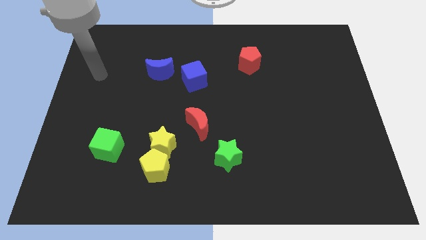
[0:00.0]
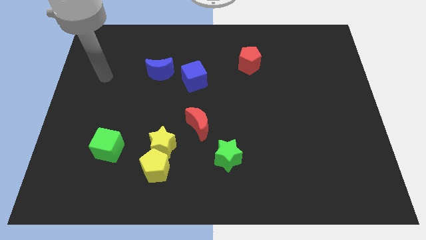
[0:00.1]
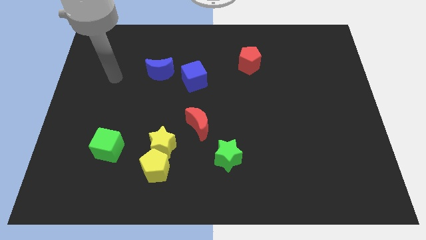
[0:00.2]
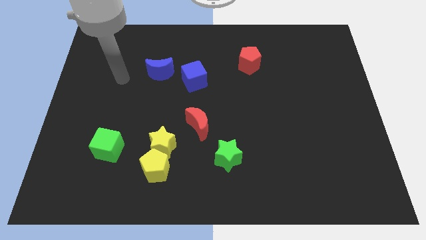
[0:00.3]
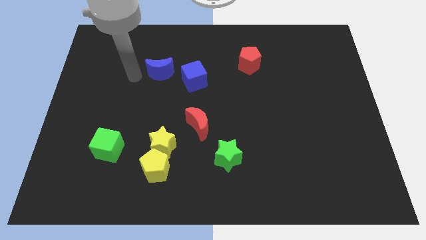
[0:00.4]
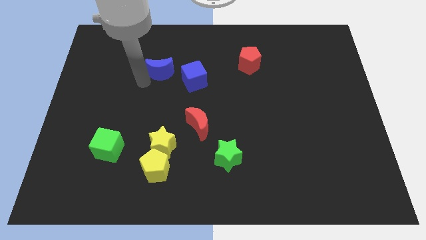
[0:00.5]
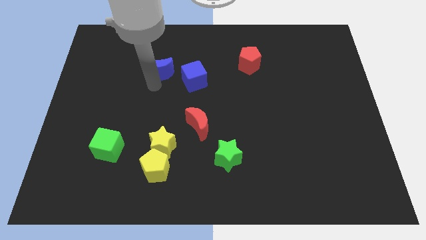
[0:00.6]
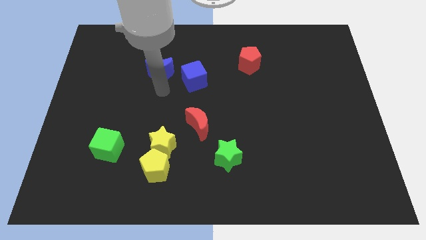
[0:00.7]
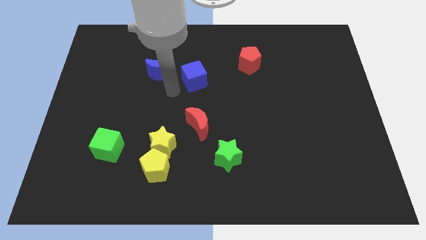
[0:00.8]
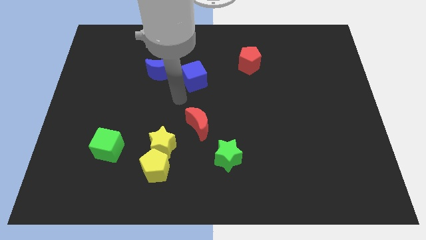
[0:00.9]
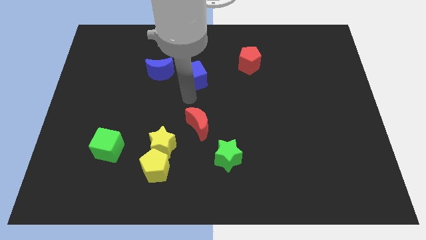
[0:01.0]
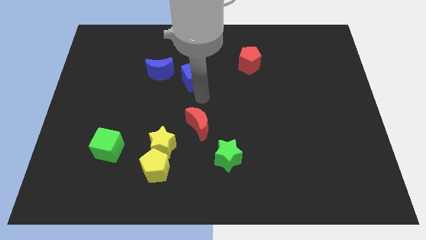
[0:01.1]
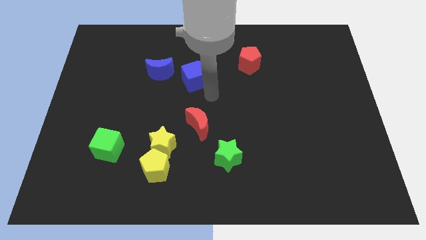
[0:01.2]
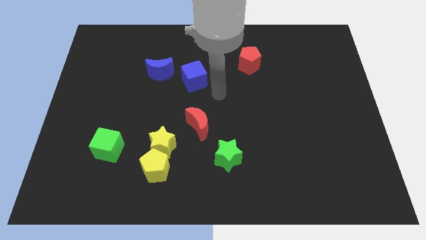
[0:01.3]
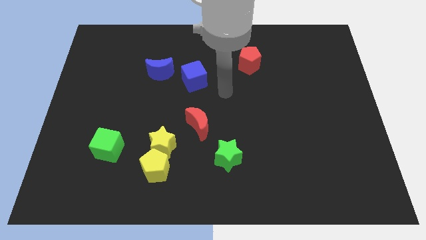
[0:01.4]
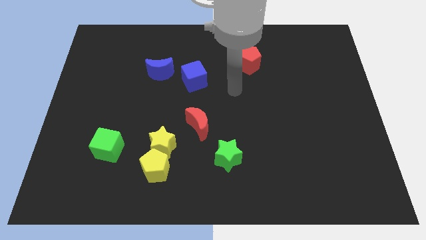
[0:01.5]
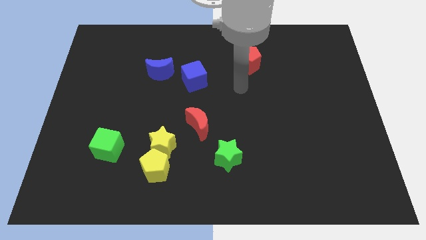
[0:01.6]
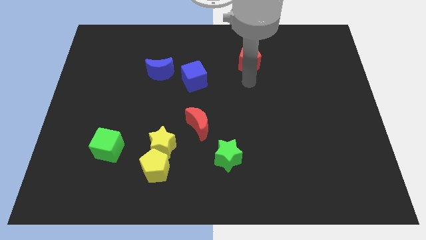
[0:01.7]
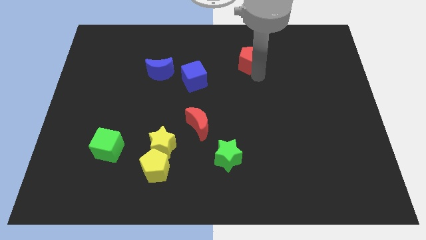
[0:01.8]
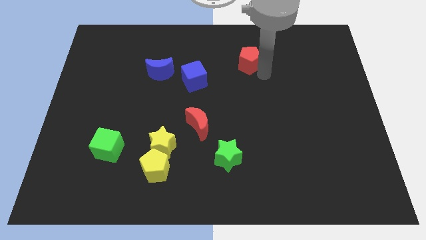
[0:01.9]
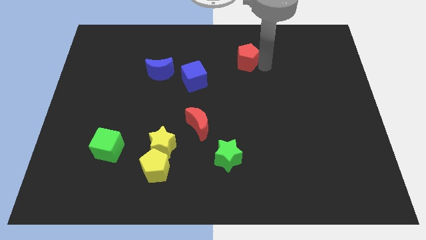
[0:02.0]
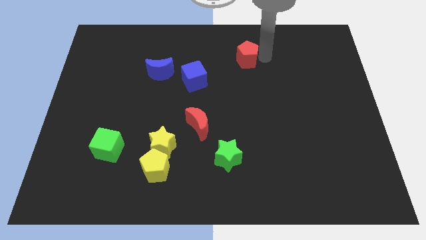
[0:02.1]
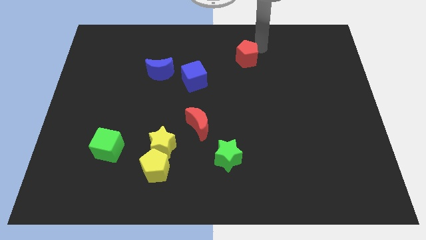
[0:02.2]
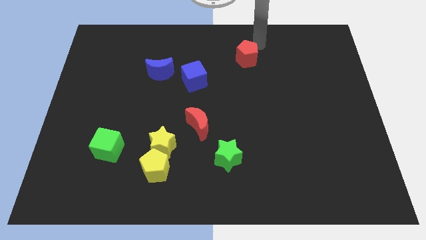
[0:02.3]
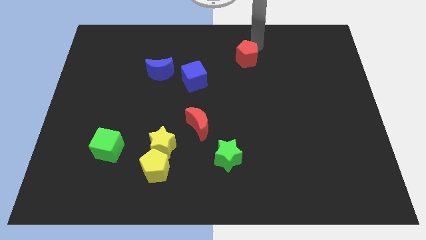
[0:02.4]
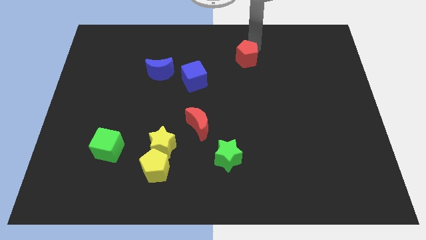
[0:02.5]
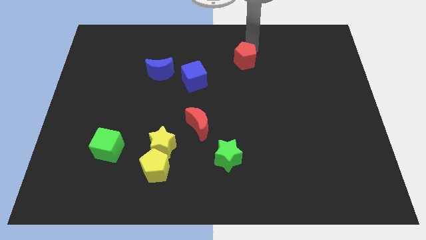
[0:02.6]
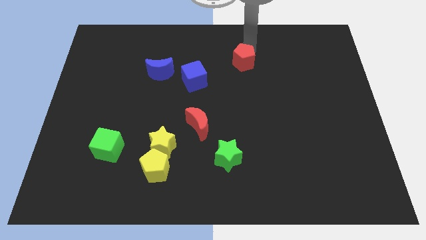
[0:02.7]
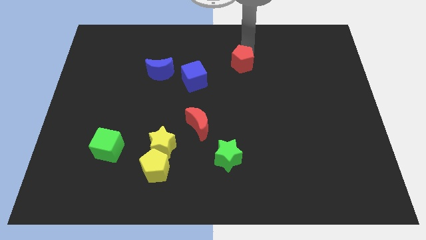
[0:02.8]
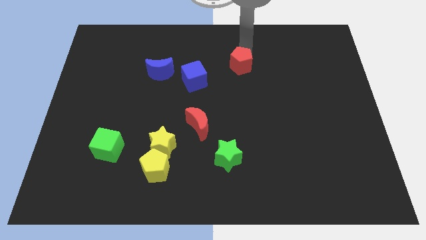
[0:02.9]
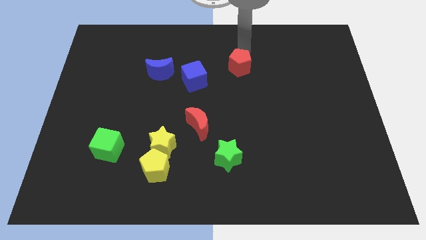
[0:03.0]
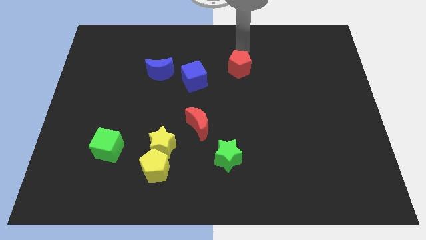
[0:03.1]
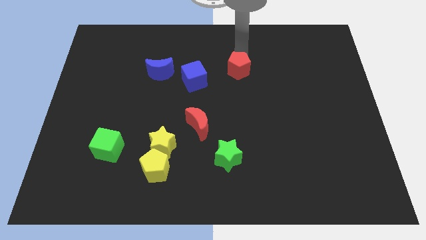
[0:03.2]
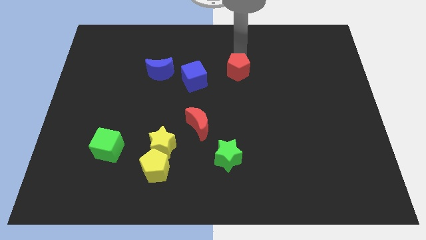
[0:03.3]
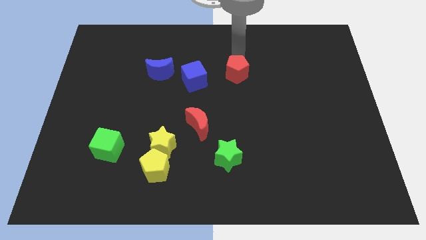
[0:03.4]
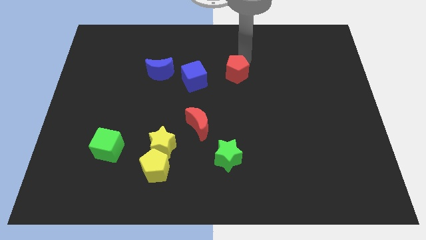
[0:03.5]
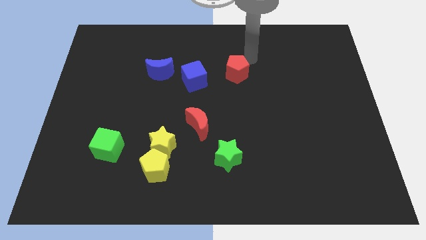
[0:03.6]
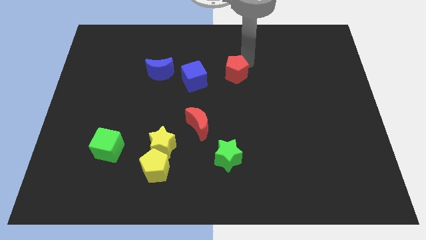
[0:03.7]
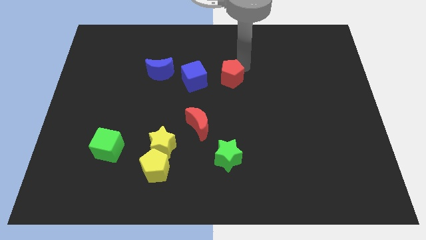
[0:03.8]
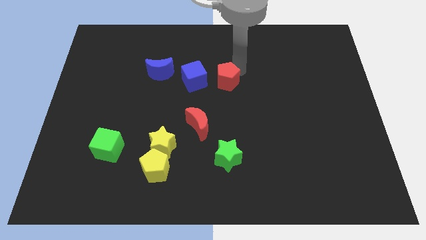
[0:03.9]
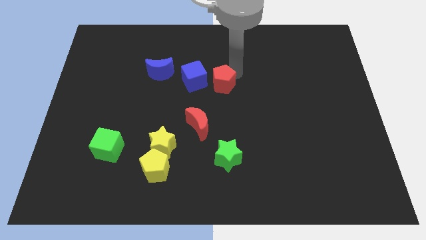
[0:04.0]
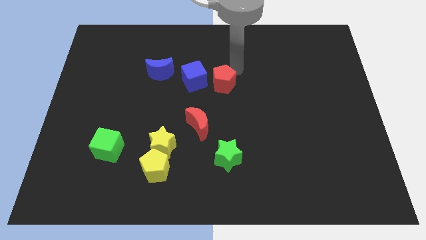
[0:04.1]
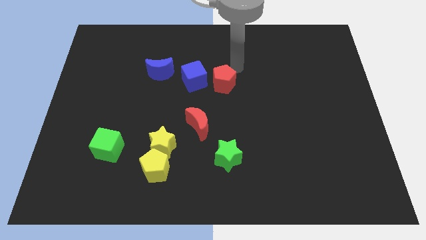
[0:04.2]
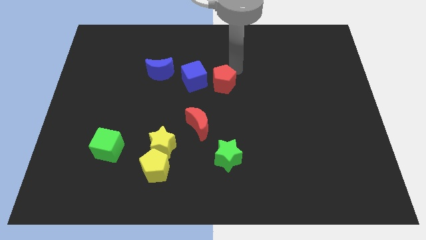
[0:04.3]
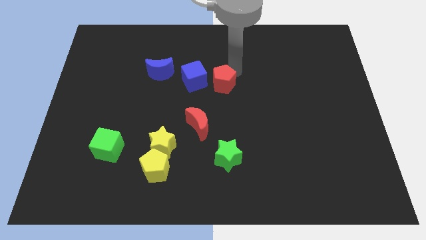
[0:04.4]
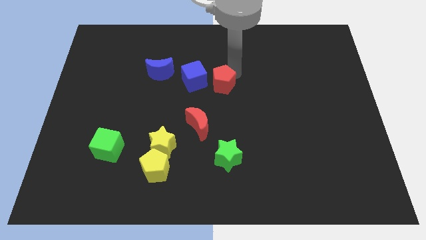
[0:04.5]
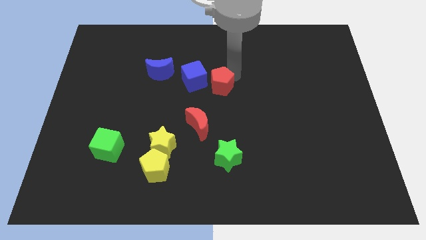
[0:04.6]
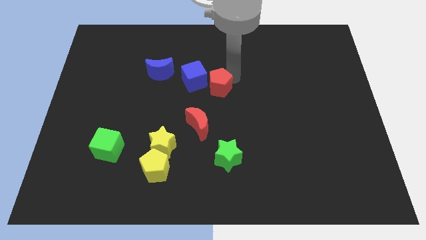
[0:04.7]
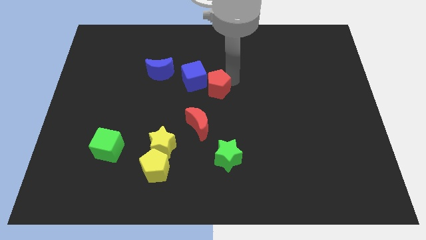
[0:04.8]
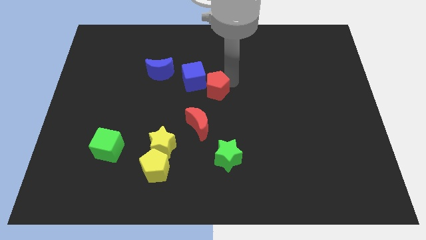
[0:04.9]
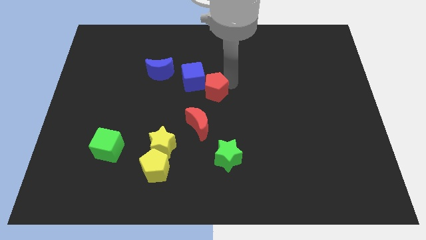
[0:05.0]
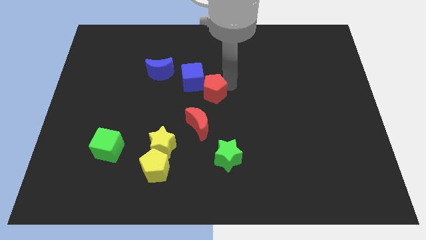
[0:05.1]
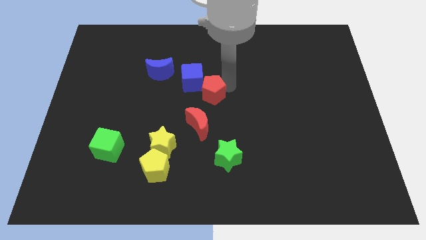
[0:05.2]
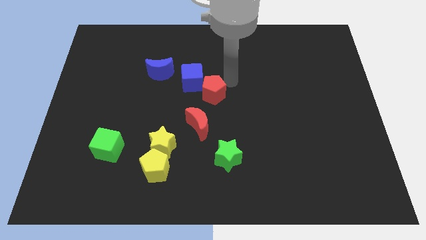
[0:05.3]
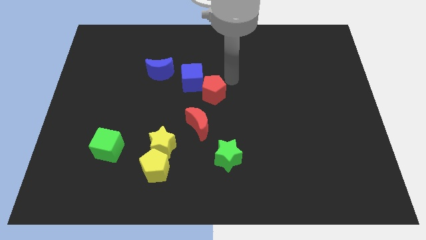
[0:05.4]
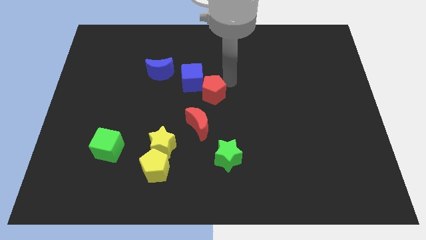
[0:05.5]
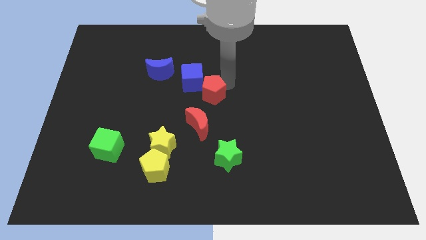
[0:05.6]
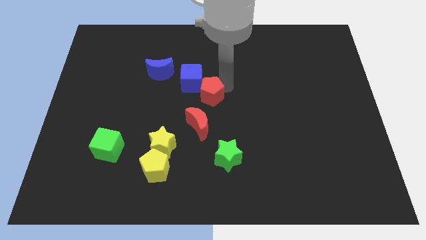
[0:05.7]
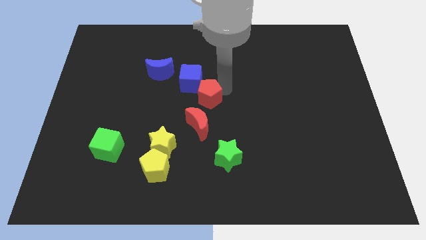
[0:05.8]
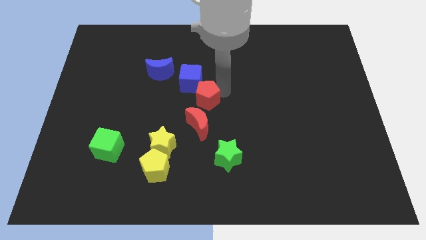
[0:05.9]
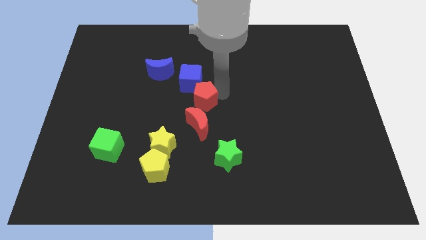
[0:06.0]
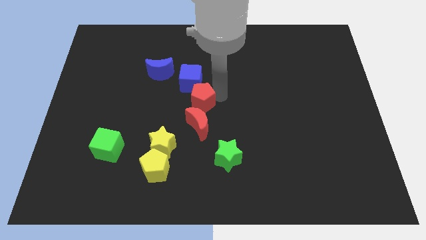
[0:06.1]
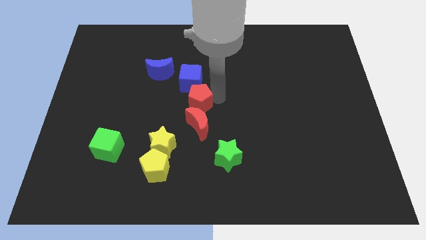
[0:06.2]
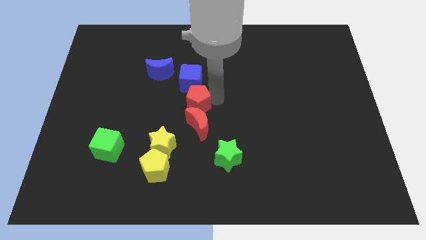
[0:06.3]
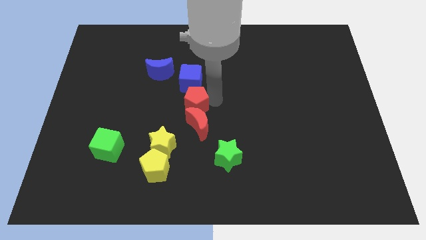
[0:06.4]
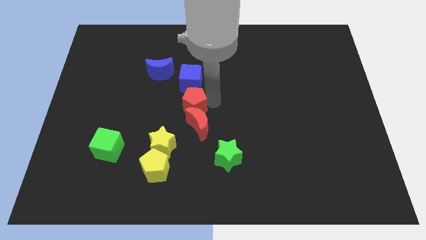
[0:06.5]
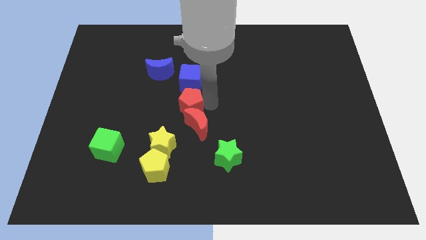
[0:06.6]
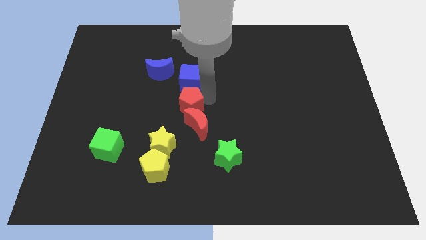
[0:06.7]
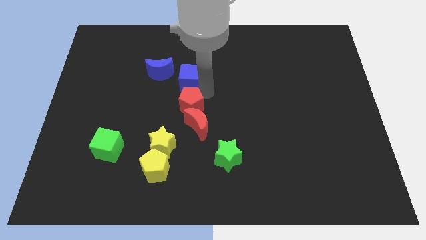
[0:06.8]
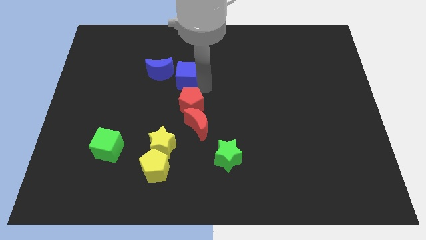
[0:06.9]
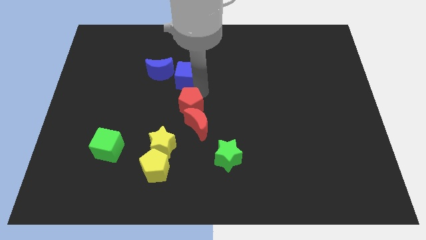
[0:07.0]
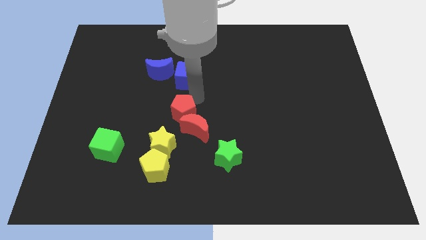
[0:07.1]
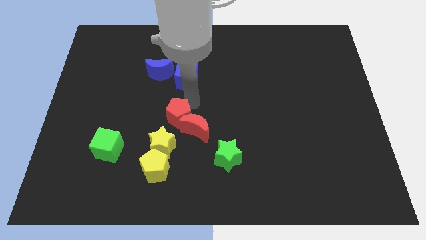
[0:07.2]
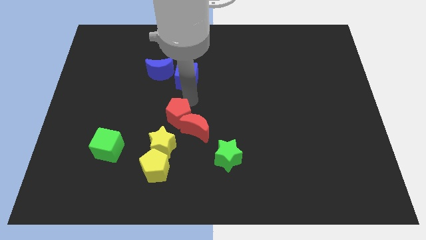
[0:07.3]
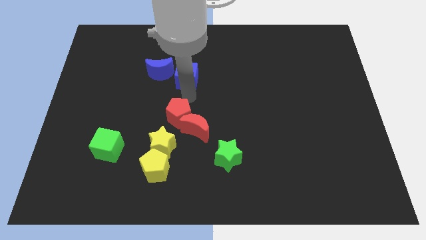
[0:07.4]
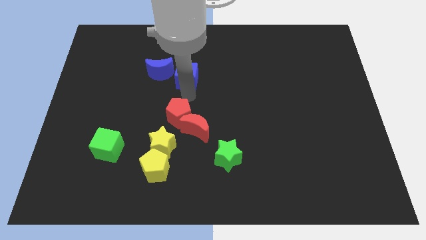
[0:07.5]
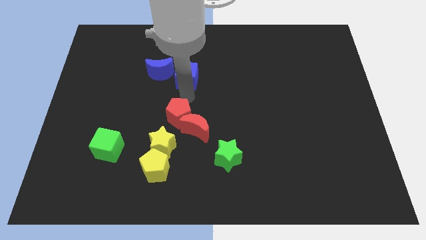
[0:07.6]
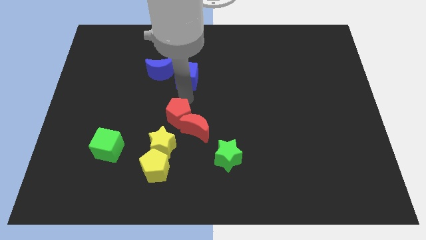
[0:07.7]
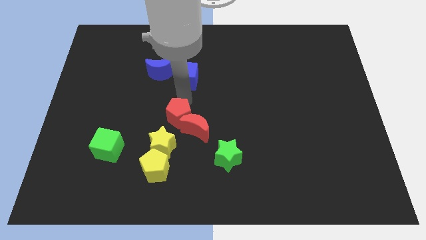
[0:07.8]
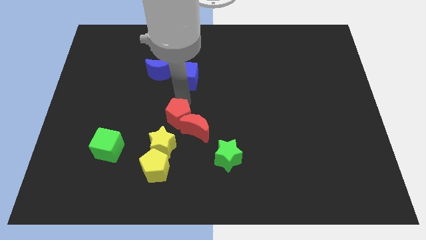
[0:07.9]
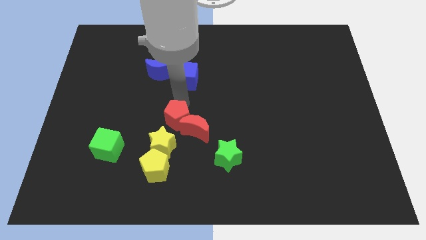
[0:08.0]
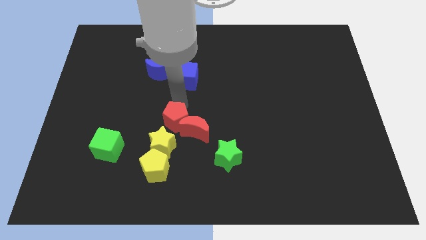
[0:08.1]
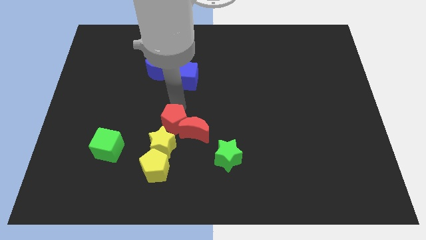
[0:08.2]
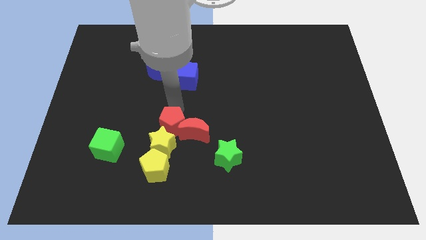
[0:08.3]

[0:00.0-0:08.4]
move the red pentagon to the yellow star
